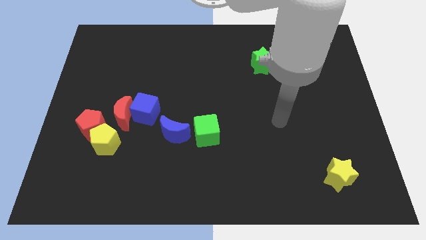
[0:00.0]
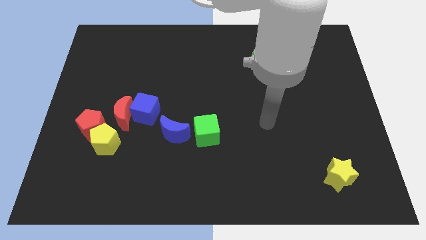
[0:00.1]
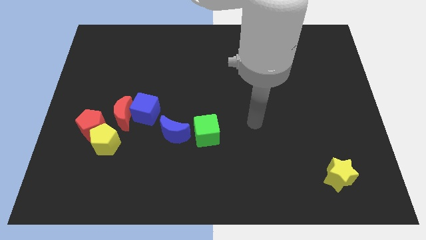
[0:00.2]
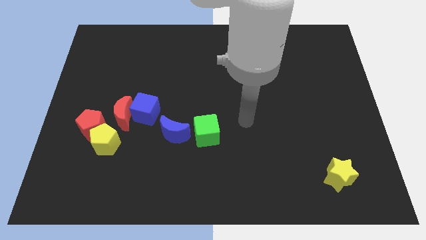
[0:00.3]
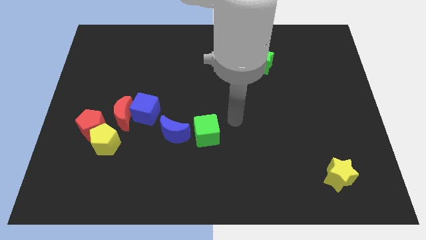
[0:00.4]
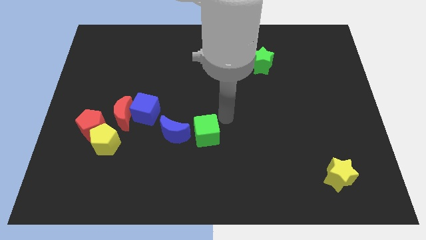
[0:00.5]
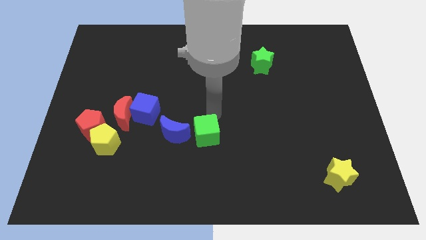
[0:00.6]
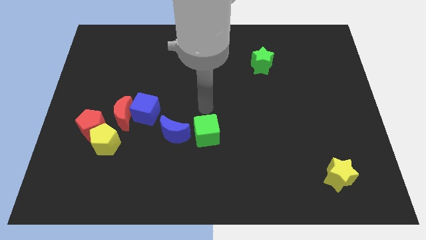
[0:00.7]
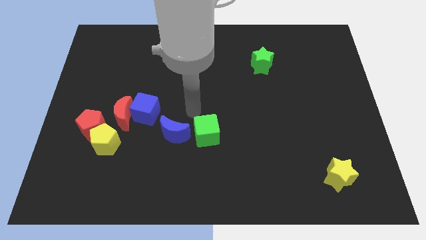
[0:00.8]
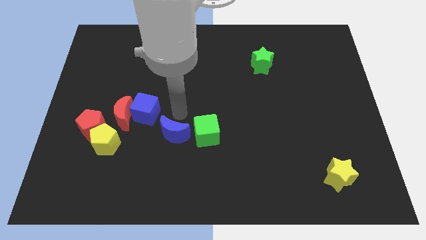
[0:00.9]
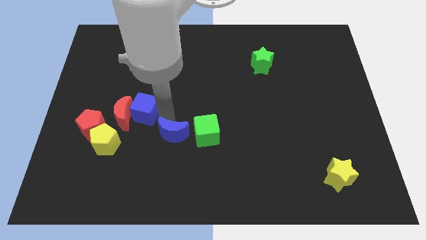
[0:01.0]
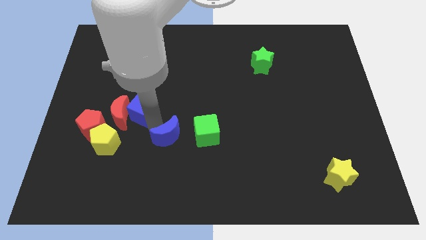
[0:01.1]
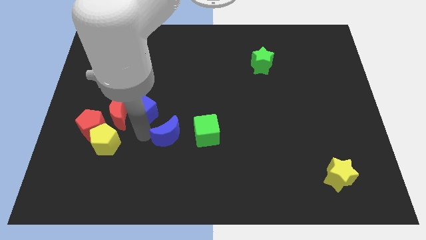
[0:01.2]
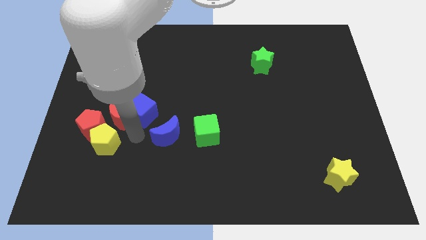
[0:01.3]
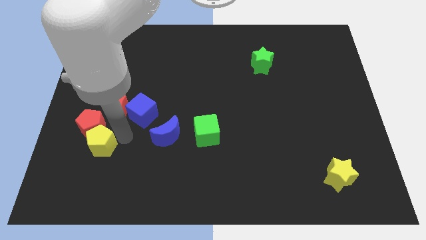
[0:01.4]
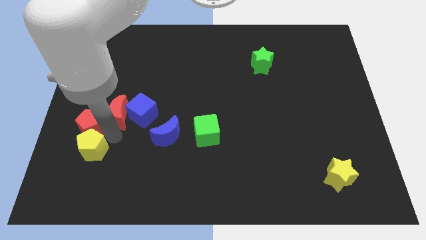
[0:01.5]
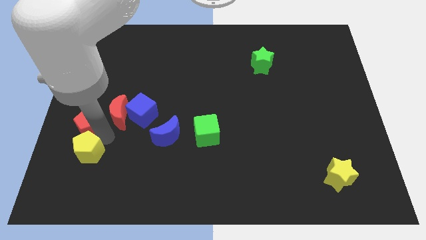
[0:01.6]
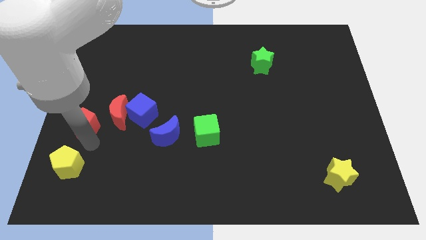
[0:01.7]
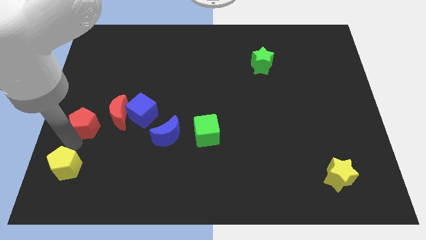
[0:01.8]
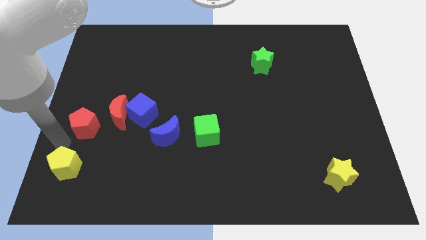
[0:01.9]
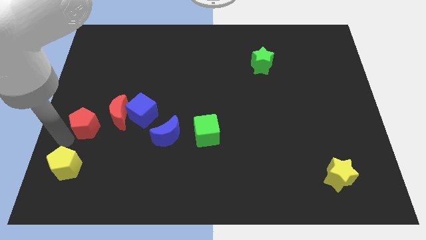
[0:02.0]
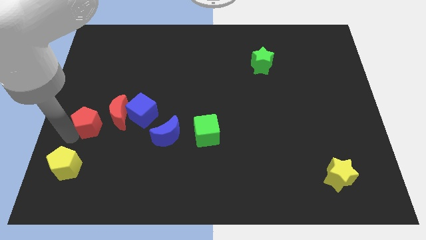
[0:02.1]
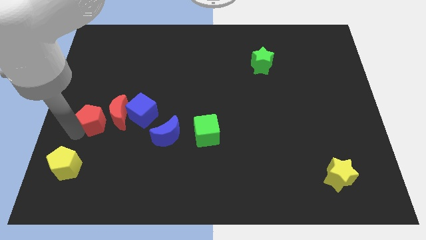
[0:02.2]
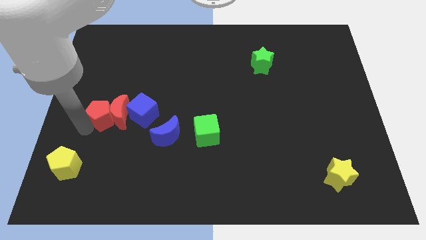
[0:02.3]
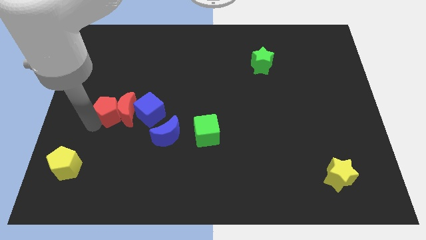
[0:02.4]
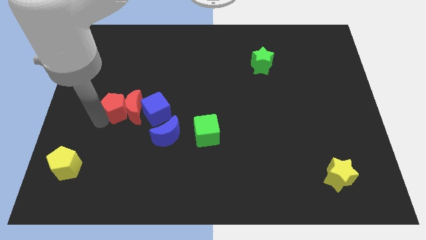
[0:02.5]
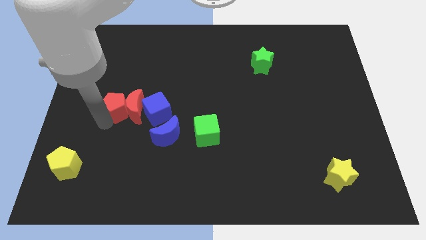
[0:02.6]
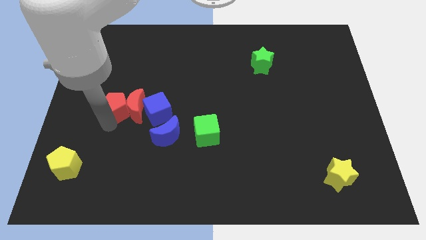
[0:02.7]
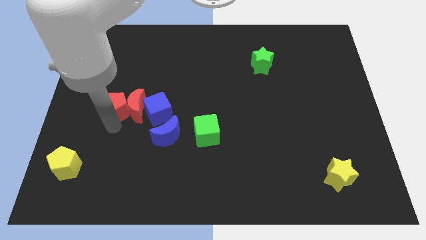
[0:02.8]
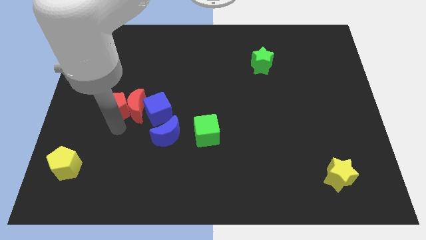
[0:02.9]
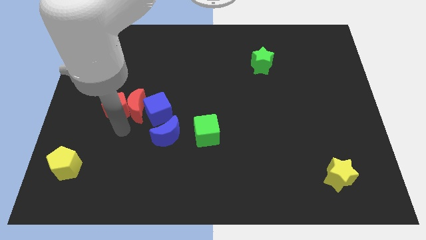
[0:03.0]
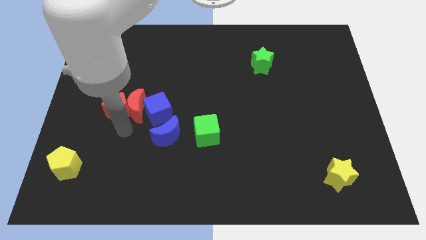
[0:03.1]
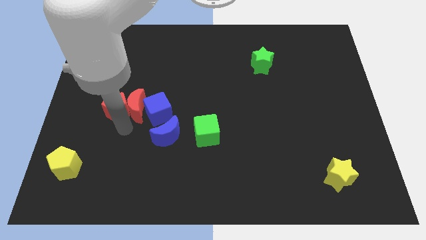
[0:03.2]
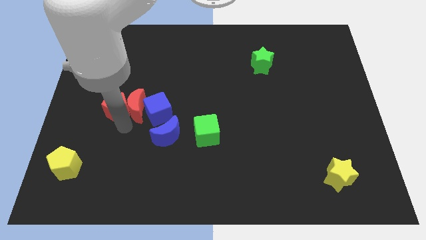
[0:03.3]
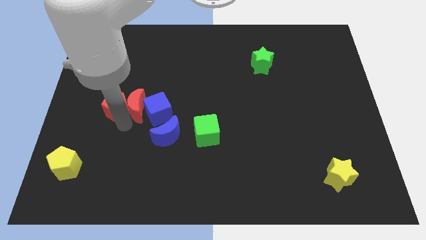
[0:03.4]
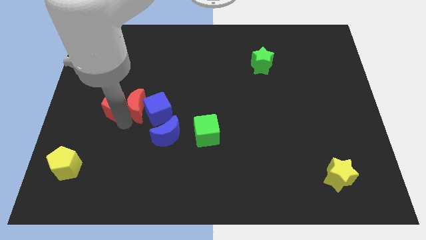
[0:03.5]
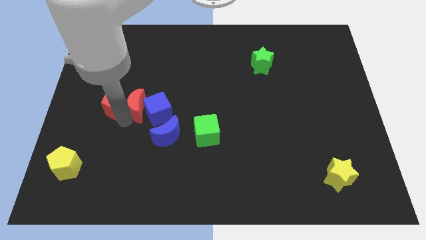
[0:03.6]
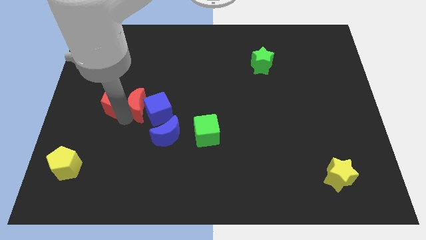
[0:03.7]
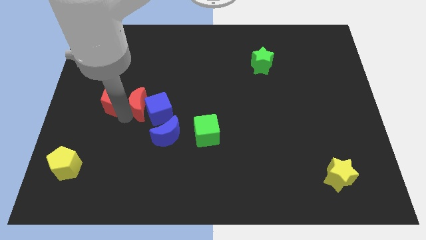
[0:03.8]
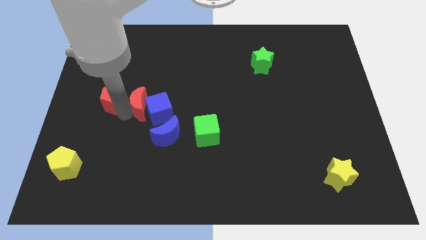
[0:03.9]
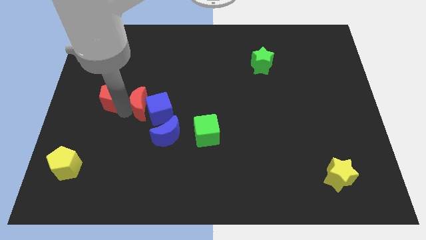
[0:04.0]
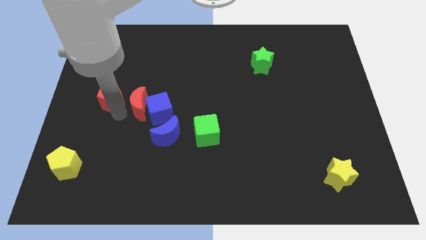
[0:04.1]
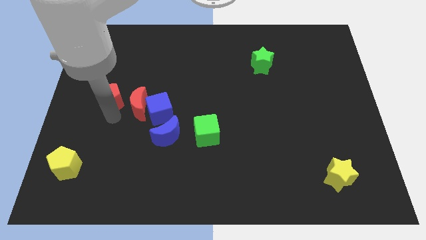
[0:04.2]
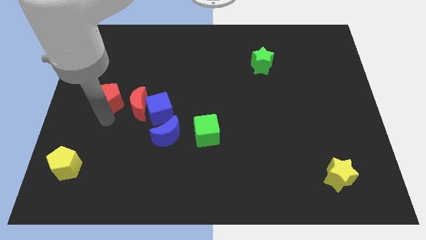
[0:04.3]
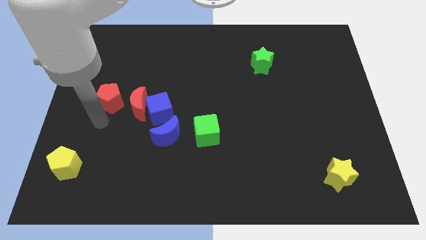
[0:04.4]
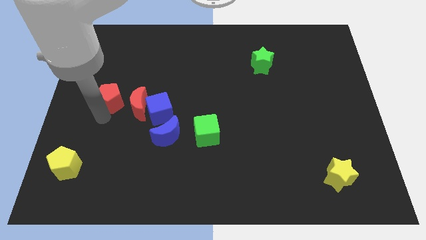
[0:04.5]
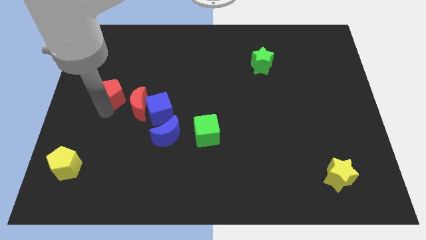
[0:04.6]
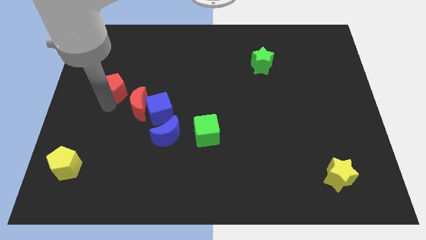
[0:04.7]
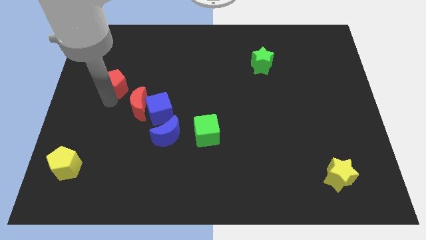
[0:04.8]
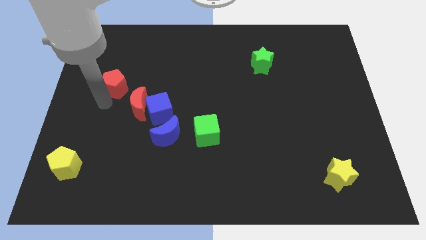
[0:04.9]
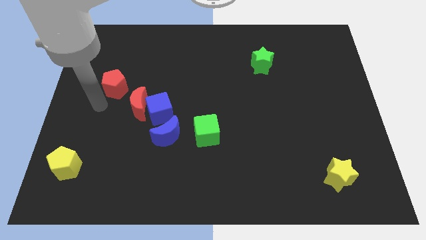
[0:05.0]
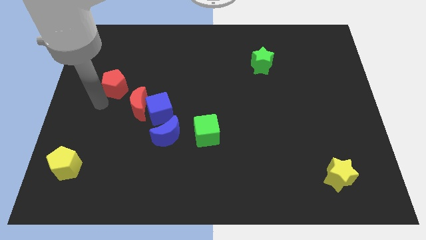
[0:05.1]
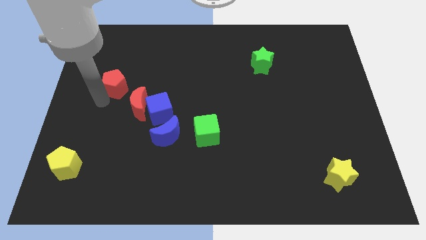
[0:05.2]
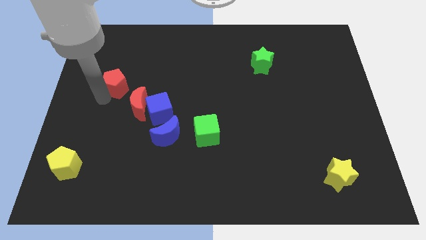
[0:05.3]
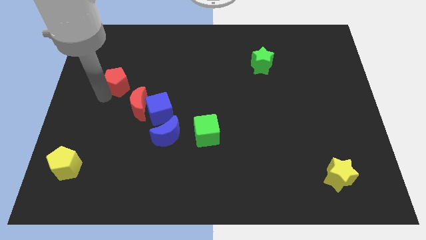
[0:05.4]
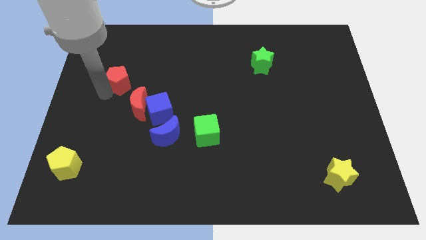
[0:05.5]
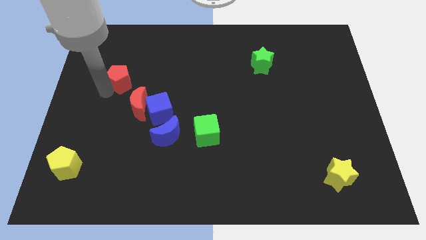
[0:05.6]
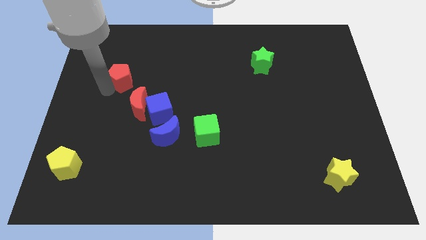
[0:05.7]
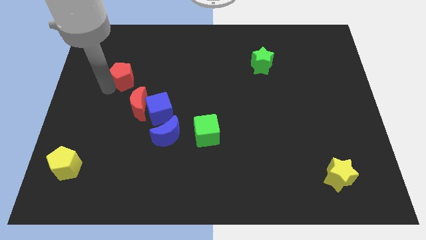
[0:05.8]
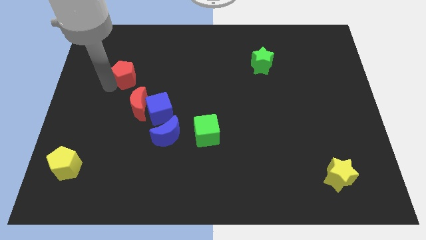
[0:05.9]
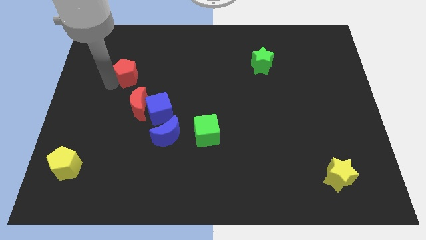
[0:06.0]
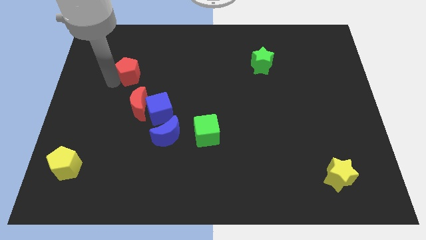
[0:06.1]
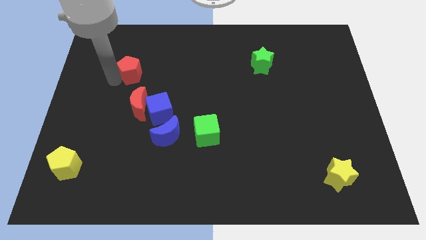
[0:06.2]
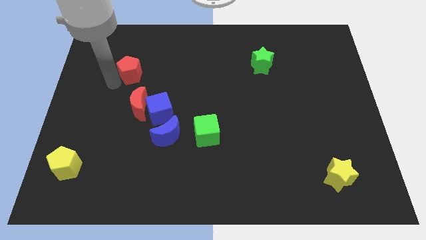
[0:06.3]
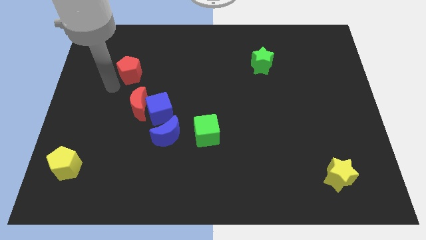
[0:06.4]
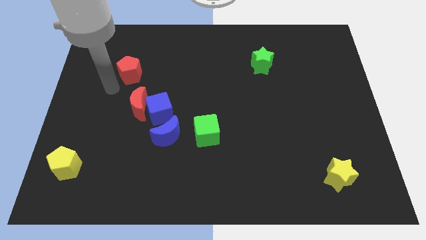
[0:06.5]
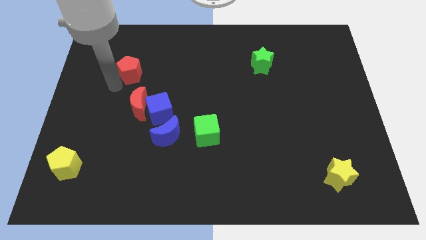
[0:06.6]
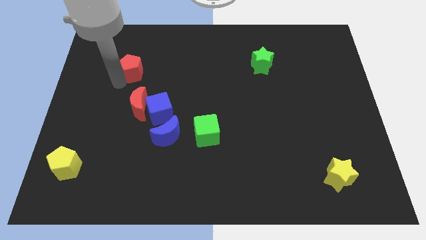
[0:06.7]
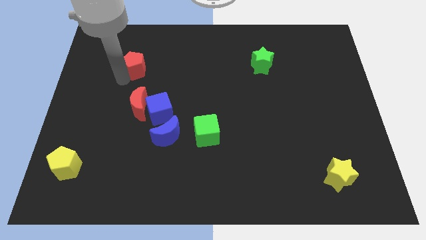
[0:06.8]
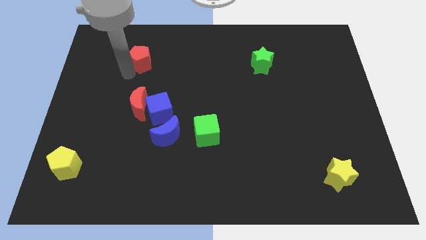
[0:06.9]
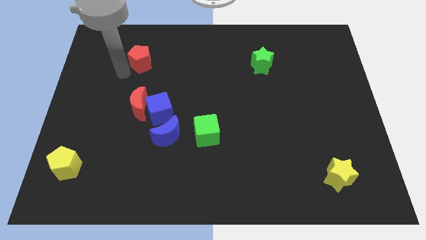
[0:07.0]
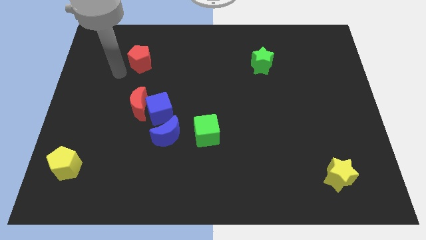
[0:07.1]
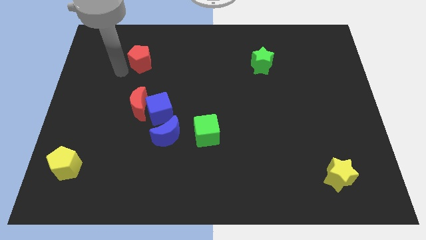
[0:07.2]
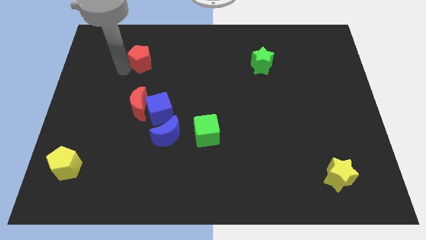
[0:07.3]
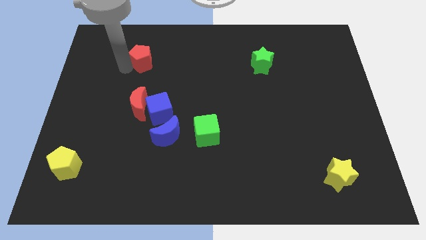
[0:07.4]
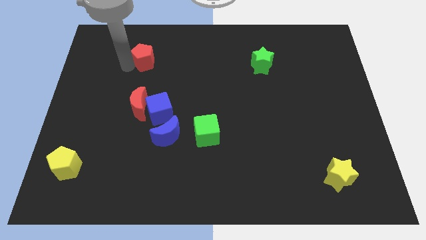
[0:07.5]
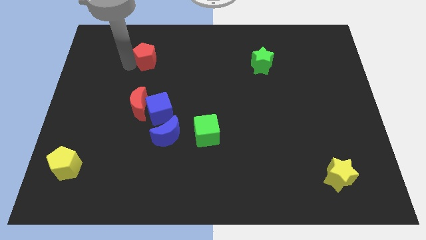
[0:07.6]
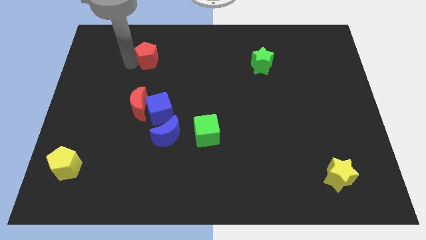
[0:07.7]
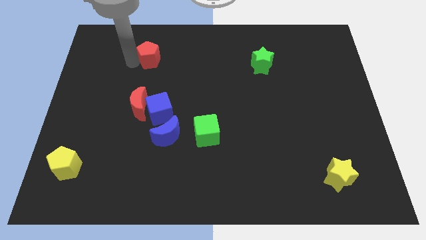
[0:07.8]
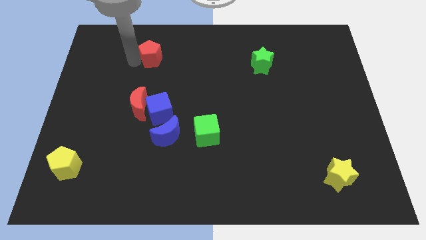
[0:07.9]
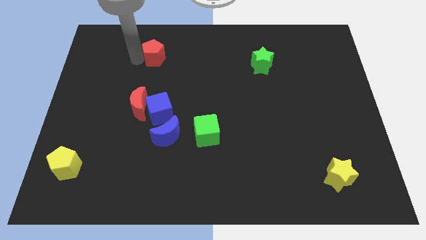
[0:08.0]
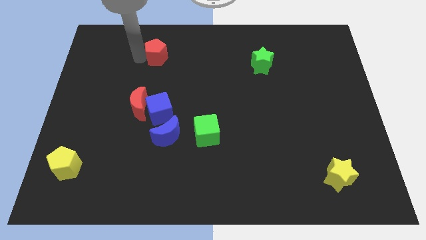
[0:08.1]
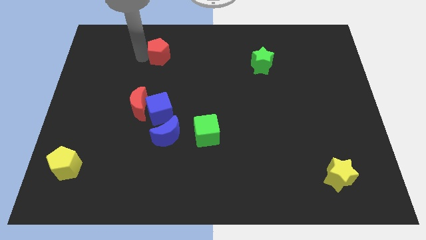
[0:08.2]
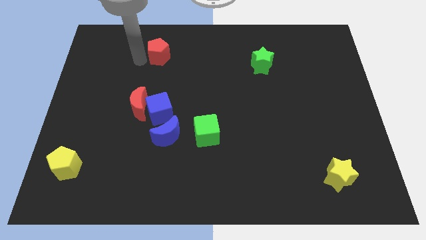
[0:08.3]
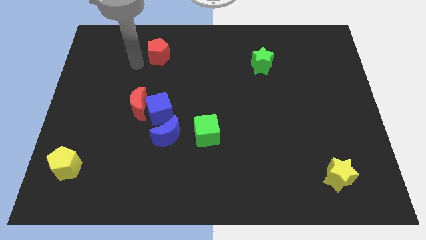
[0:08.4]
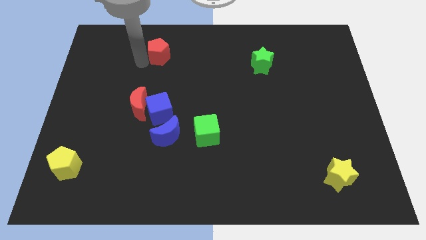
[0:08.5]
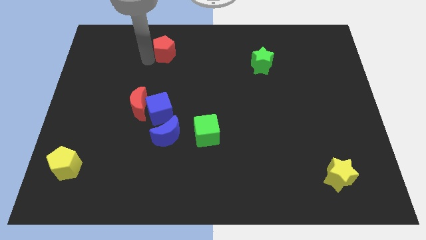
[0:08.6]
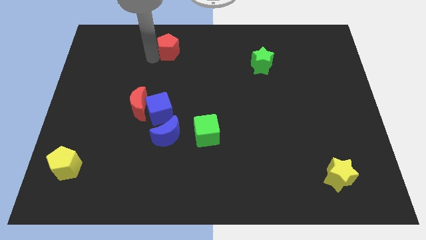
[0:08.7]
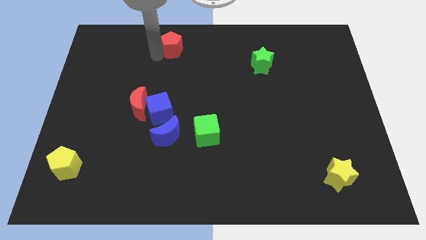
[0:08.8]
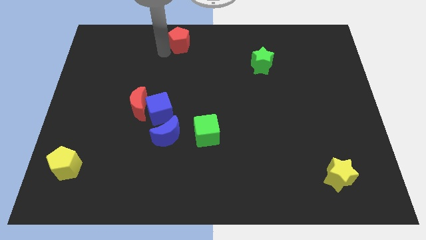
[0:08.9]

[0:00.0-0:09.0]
put the red pentagon to the top side
